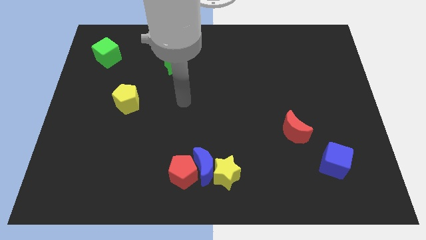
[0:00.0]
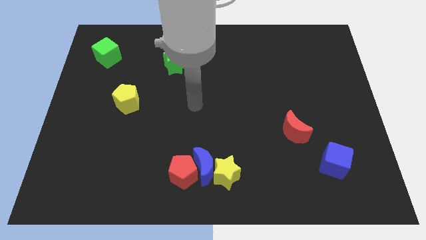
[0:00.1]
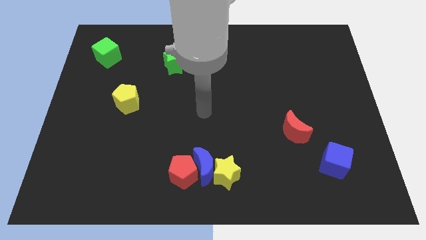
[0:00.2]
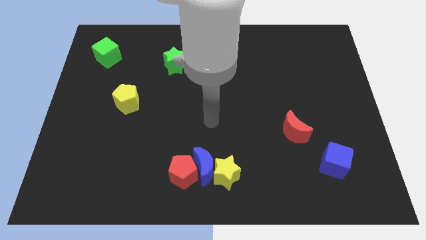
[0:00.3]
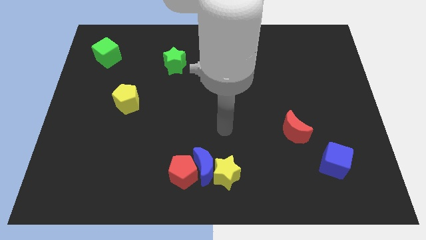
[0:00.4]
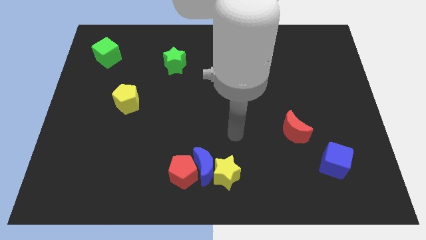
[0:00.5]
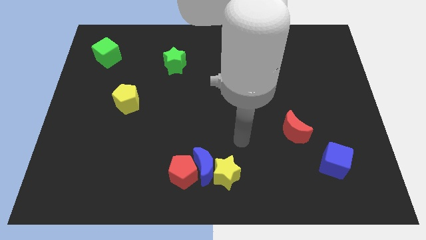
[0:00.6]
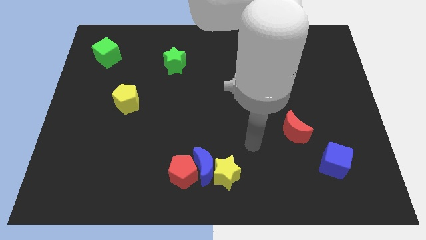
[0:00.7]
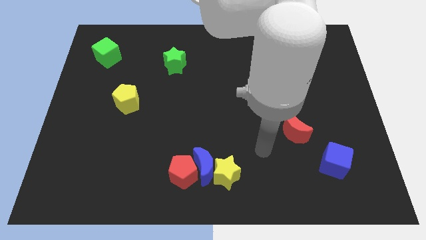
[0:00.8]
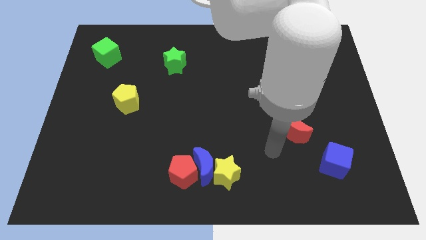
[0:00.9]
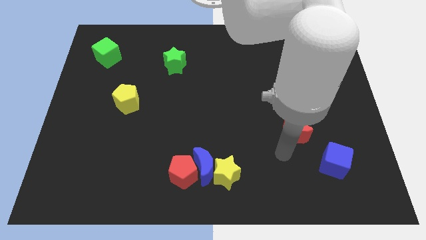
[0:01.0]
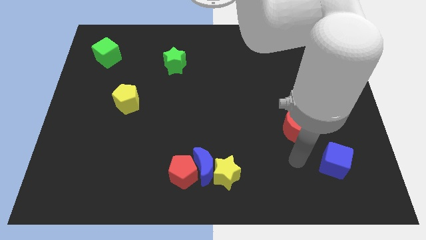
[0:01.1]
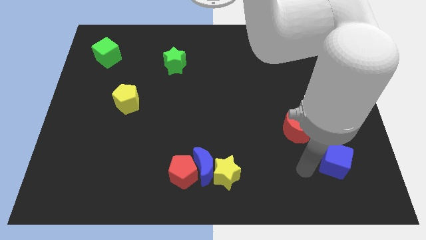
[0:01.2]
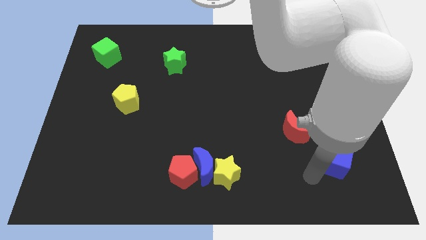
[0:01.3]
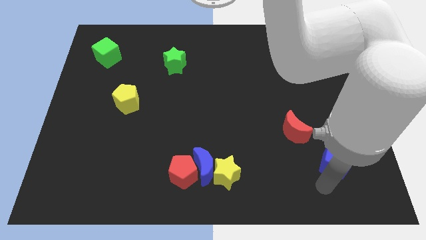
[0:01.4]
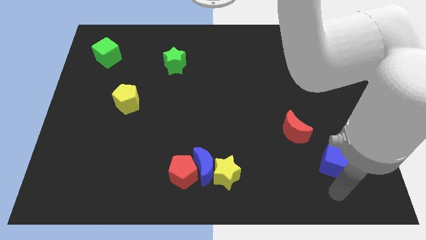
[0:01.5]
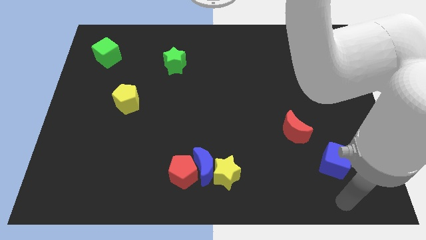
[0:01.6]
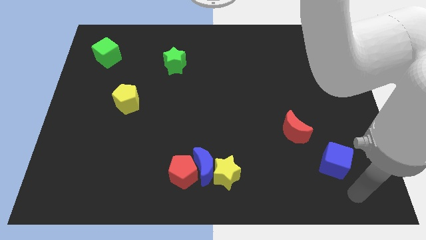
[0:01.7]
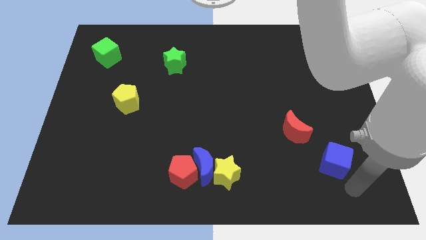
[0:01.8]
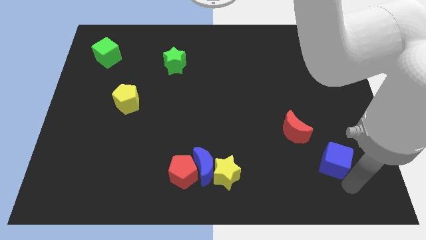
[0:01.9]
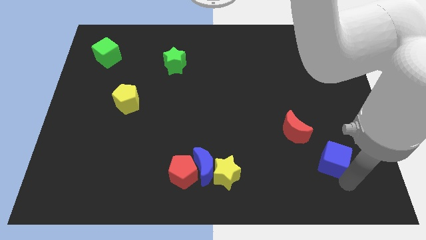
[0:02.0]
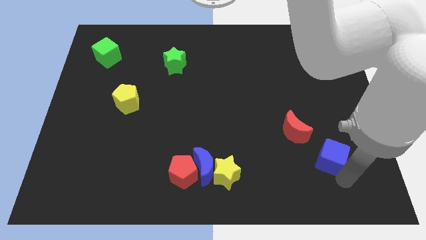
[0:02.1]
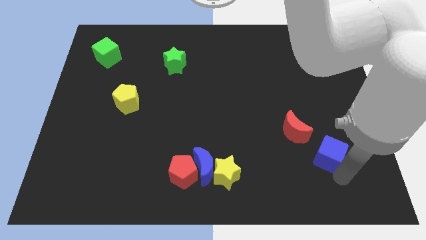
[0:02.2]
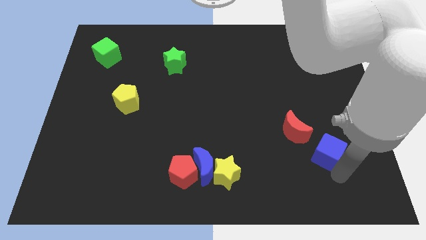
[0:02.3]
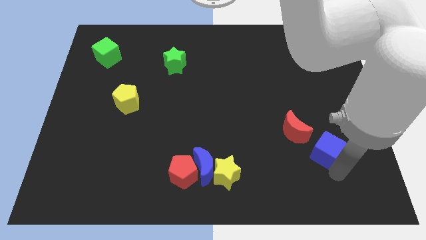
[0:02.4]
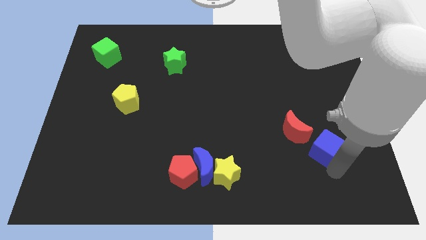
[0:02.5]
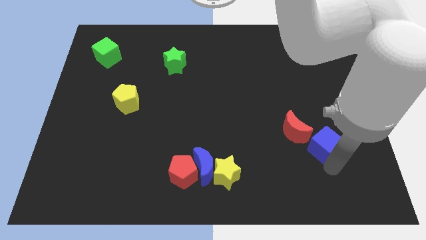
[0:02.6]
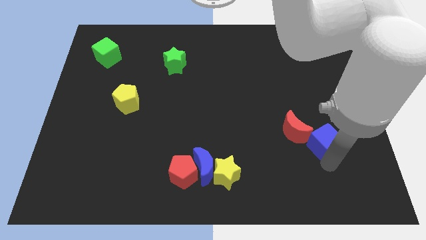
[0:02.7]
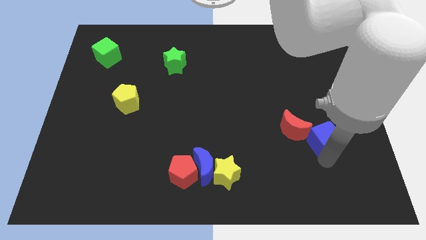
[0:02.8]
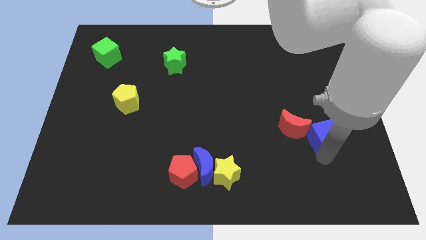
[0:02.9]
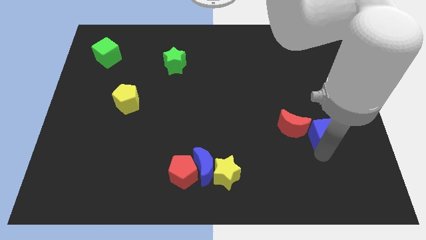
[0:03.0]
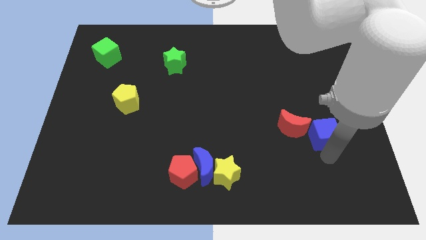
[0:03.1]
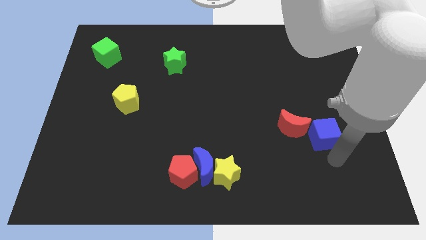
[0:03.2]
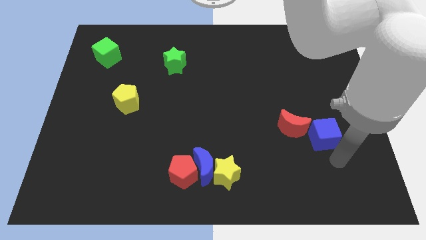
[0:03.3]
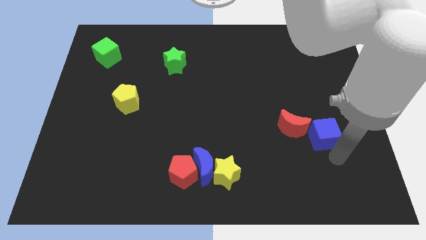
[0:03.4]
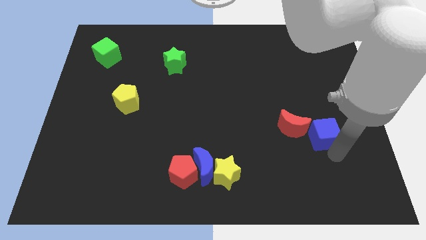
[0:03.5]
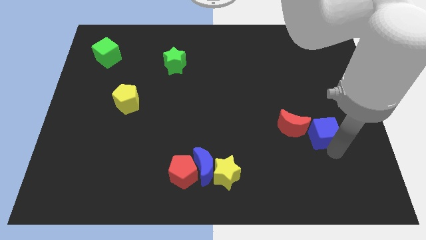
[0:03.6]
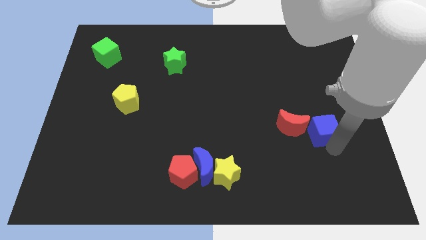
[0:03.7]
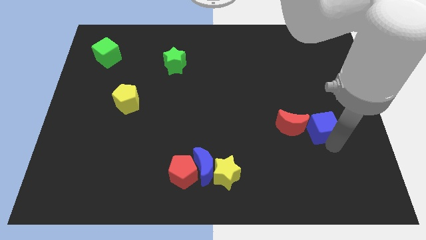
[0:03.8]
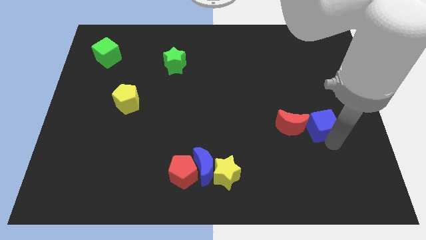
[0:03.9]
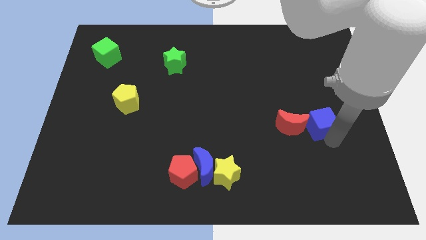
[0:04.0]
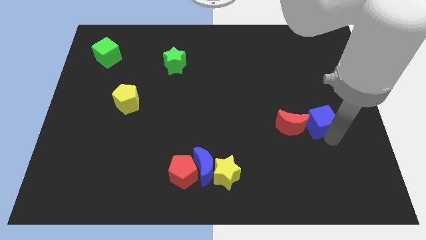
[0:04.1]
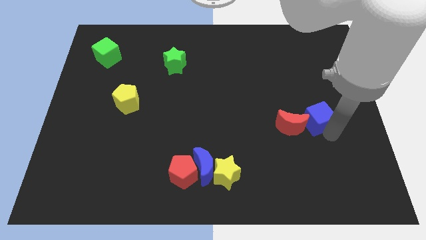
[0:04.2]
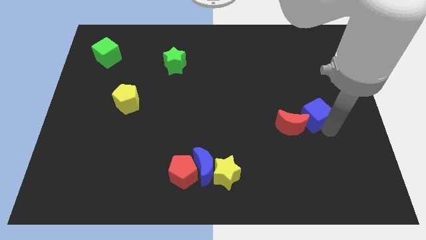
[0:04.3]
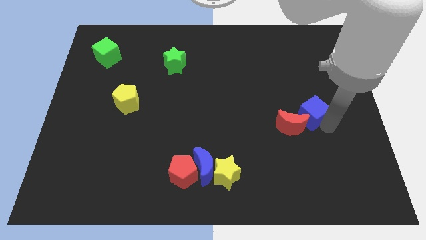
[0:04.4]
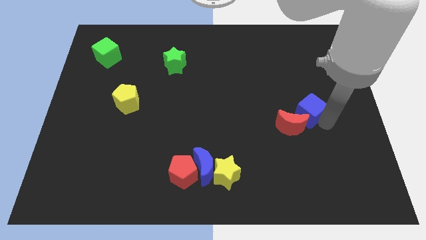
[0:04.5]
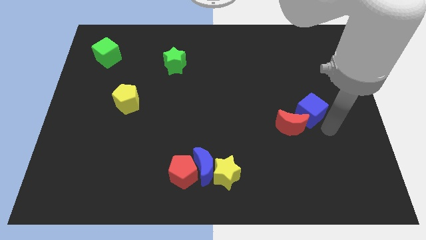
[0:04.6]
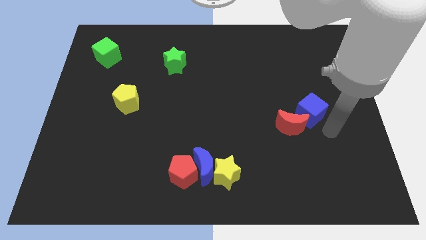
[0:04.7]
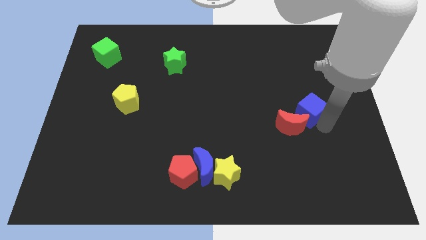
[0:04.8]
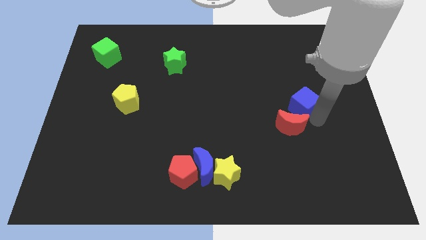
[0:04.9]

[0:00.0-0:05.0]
push the blue cube to the top side of the red moon

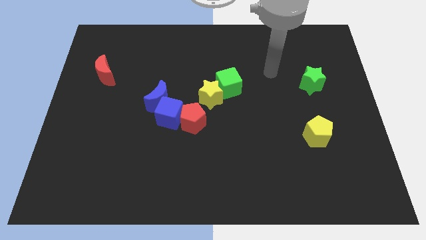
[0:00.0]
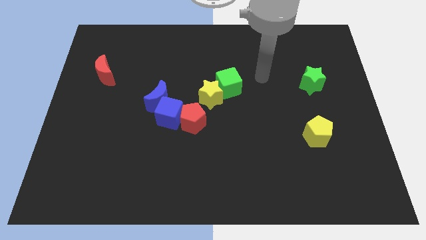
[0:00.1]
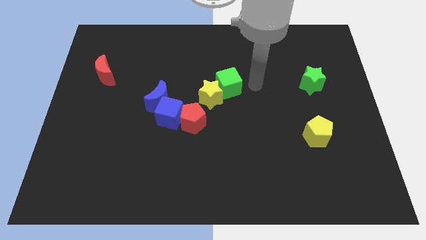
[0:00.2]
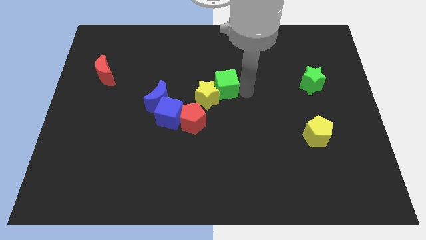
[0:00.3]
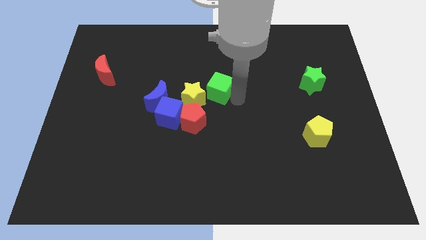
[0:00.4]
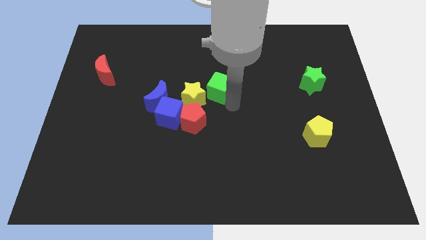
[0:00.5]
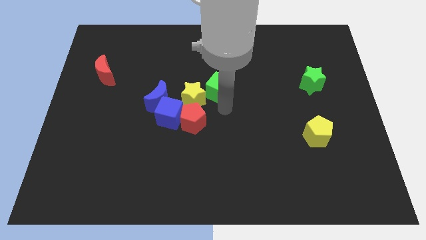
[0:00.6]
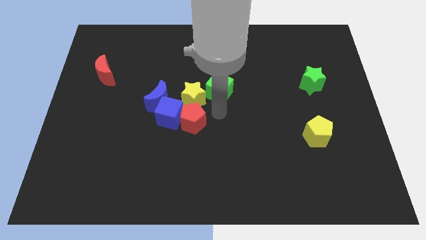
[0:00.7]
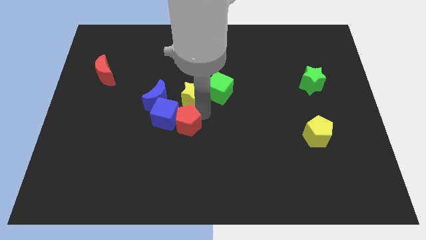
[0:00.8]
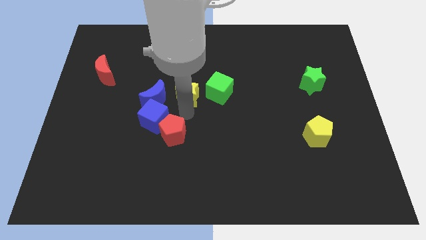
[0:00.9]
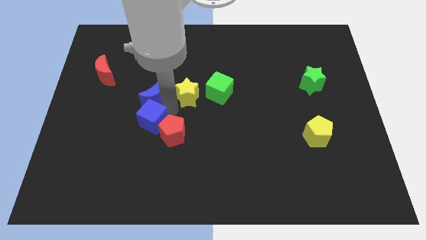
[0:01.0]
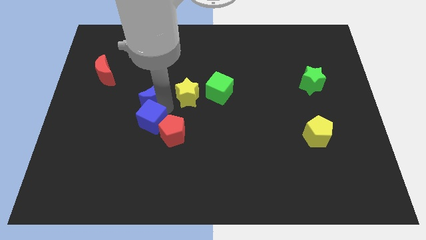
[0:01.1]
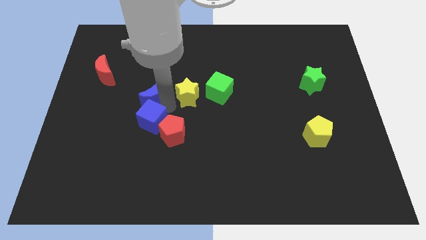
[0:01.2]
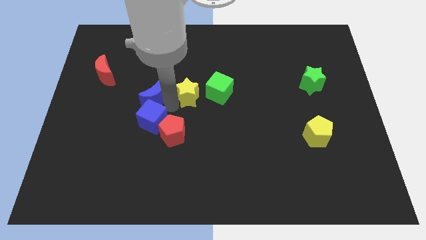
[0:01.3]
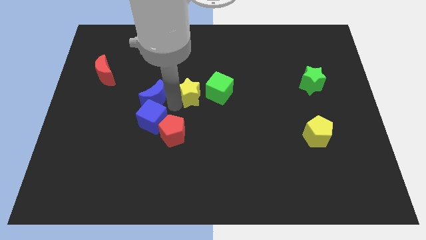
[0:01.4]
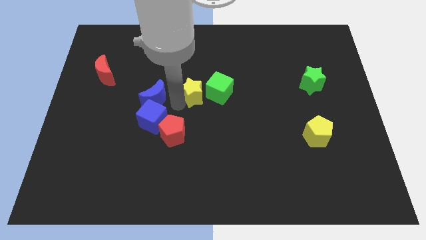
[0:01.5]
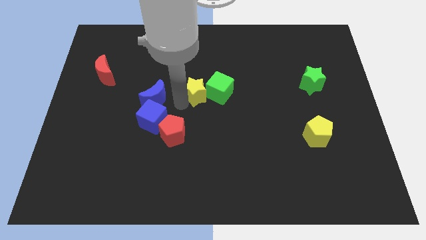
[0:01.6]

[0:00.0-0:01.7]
move the yellow star diagonally up and to the left of the green cube
